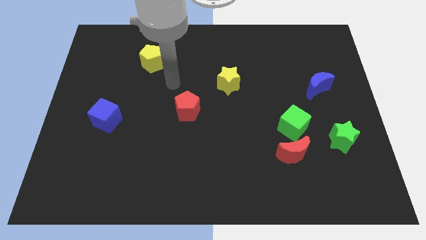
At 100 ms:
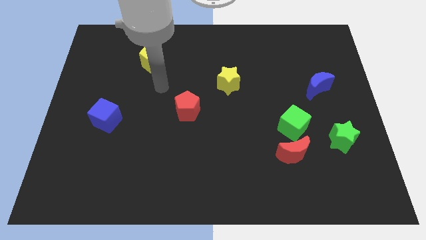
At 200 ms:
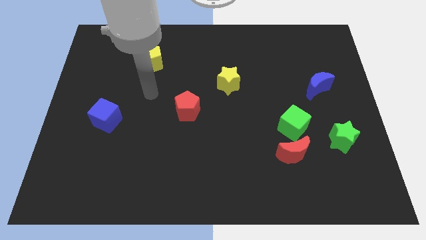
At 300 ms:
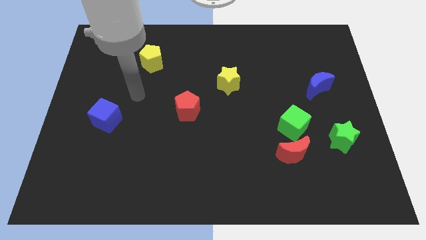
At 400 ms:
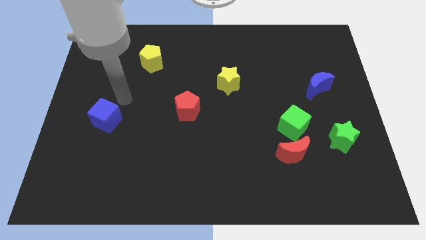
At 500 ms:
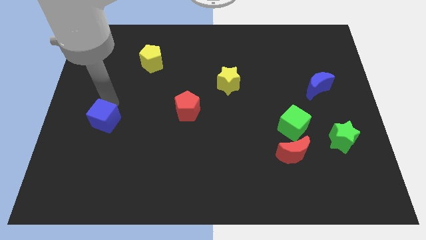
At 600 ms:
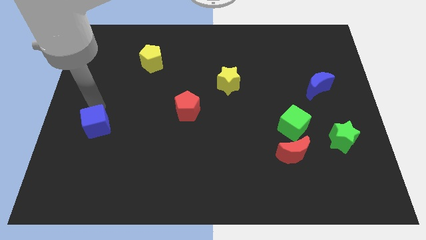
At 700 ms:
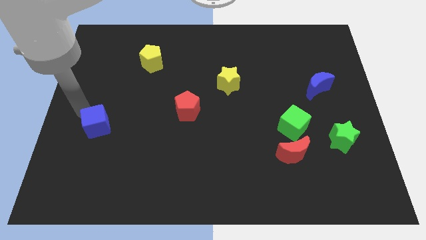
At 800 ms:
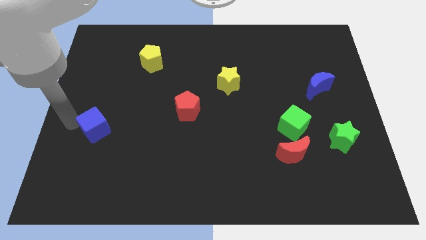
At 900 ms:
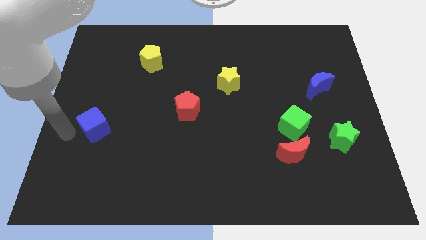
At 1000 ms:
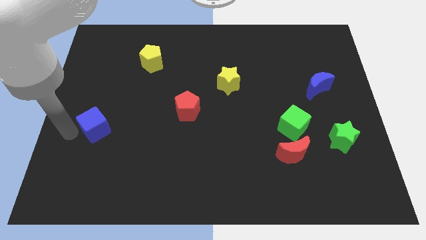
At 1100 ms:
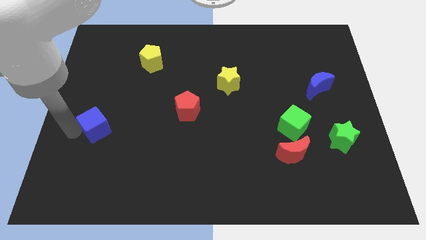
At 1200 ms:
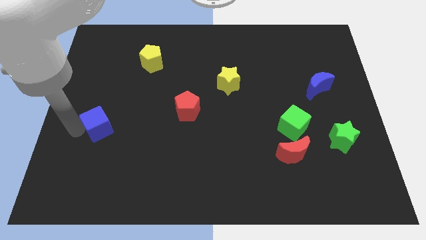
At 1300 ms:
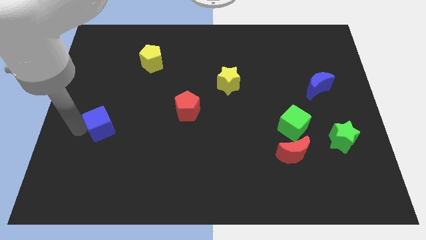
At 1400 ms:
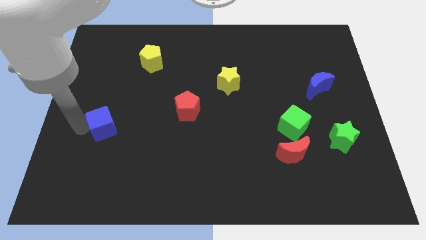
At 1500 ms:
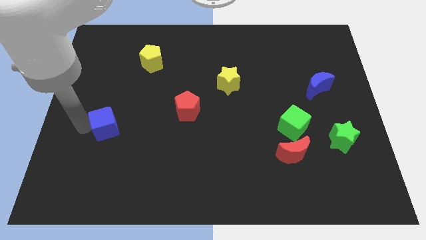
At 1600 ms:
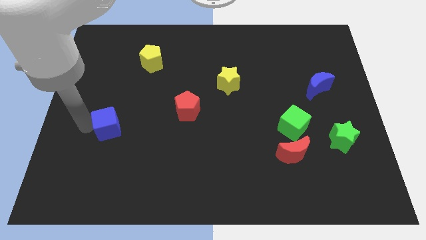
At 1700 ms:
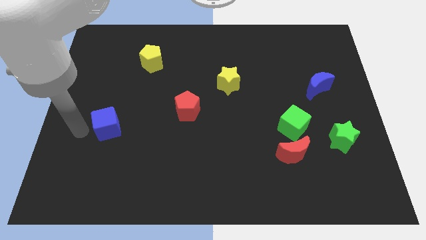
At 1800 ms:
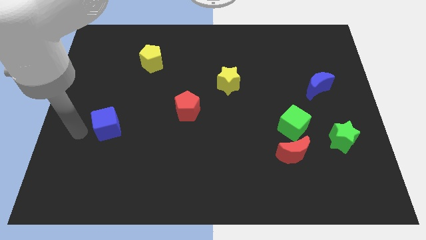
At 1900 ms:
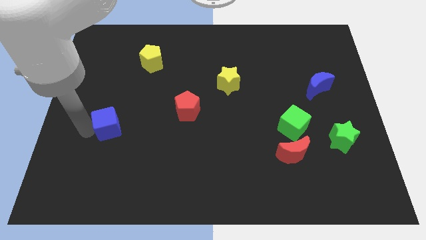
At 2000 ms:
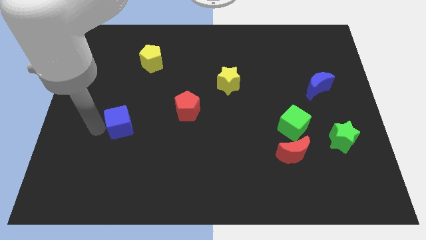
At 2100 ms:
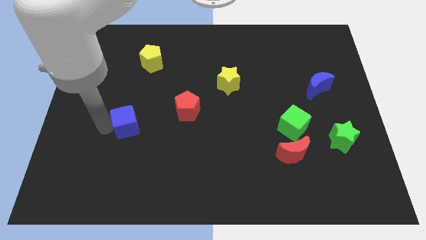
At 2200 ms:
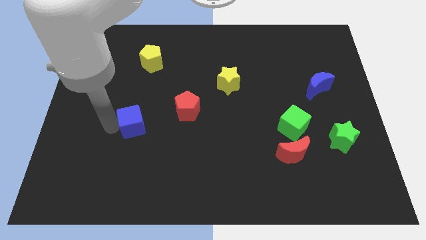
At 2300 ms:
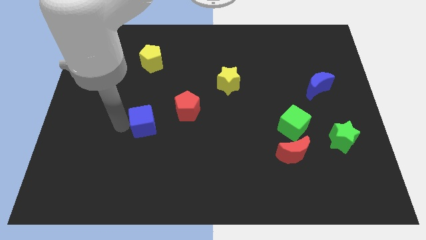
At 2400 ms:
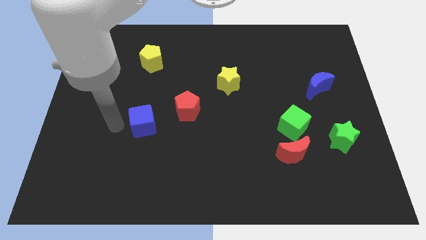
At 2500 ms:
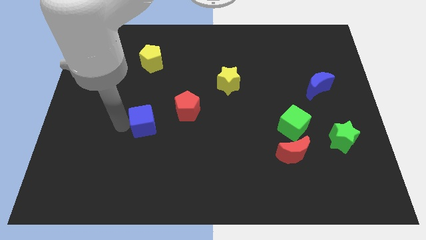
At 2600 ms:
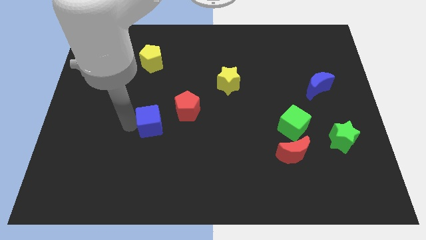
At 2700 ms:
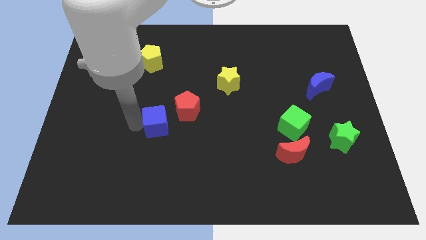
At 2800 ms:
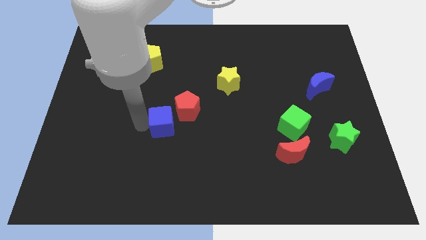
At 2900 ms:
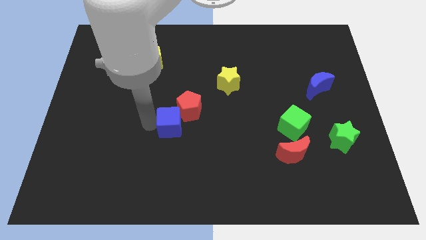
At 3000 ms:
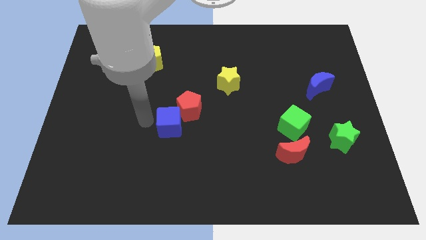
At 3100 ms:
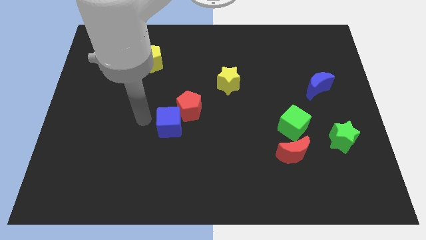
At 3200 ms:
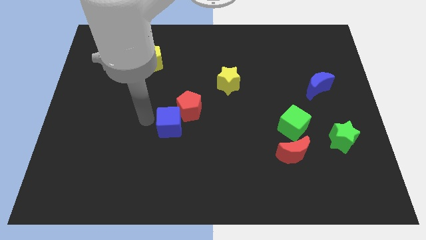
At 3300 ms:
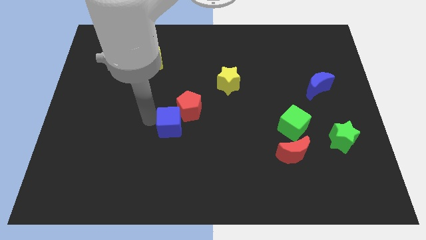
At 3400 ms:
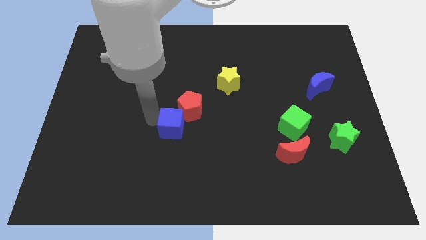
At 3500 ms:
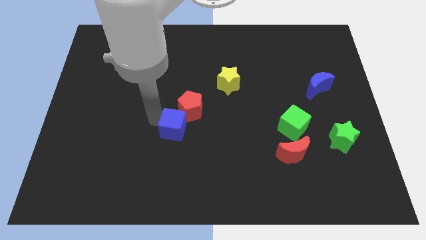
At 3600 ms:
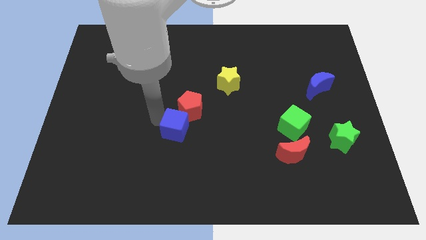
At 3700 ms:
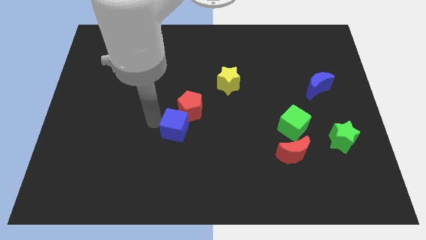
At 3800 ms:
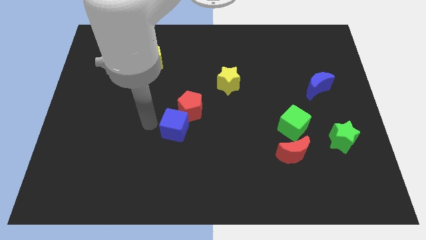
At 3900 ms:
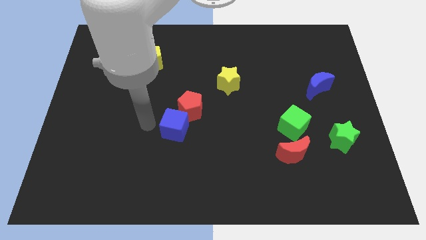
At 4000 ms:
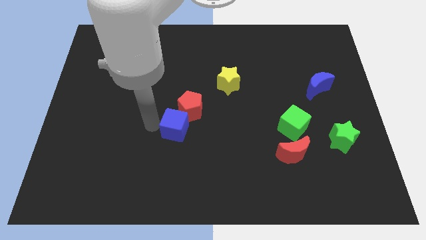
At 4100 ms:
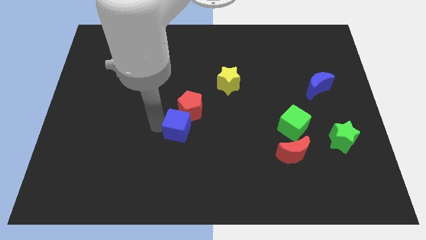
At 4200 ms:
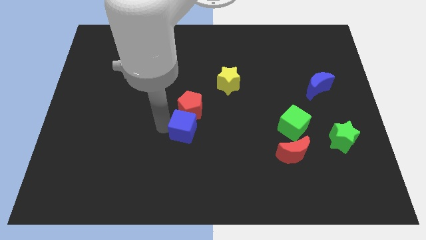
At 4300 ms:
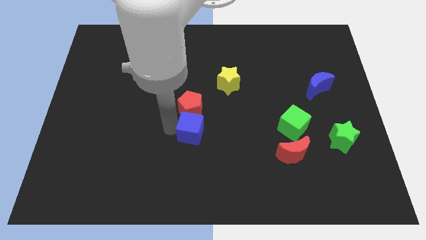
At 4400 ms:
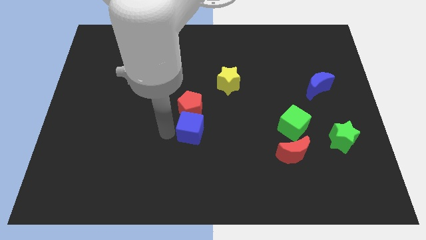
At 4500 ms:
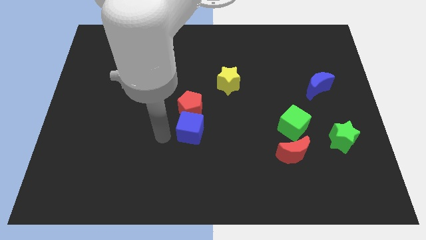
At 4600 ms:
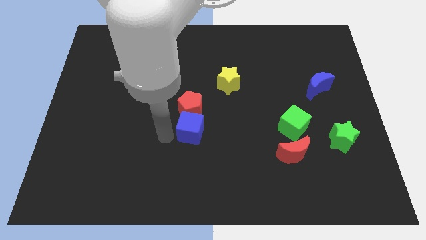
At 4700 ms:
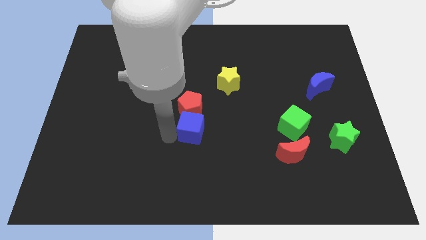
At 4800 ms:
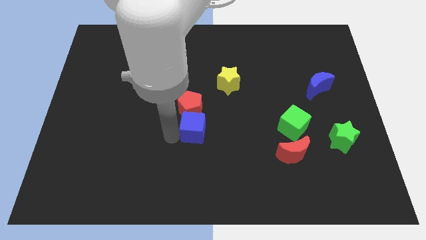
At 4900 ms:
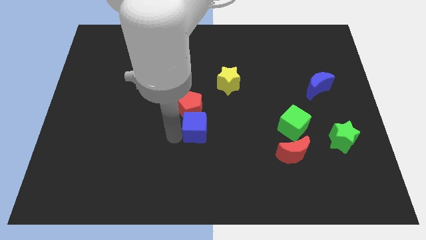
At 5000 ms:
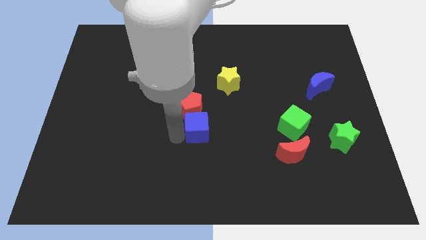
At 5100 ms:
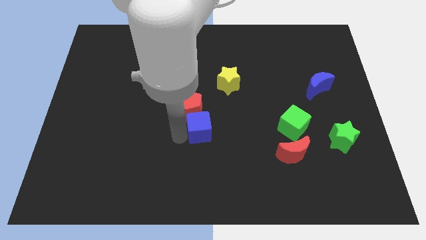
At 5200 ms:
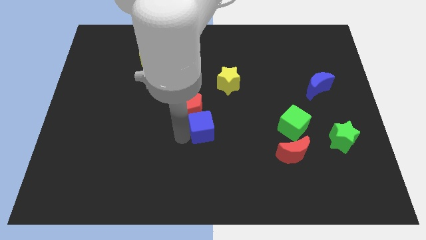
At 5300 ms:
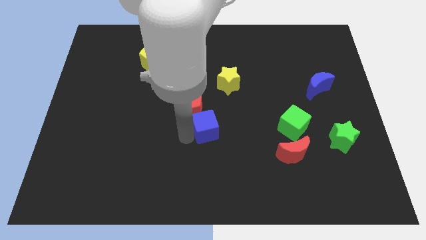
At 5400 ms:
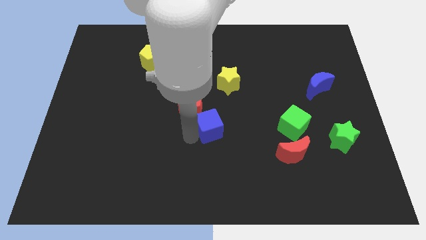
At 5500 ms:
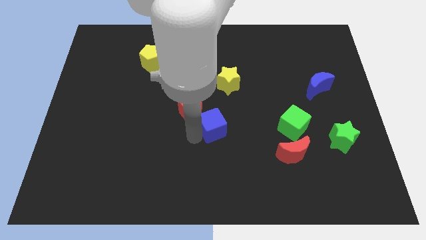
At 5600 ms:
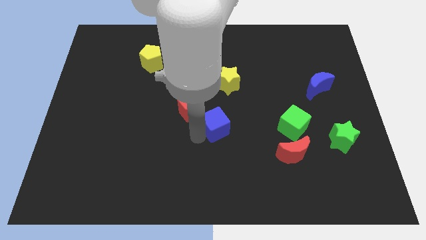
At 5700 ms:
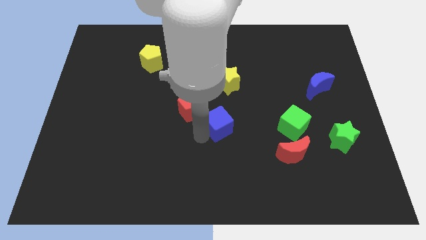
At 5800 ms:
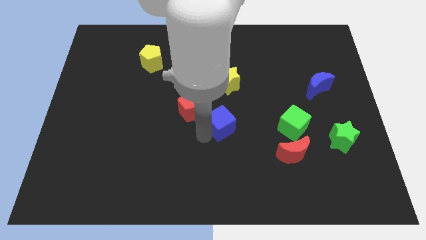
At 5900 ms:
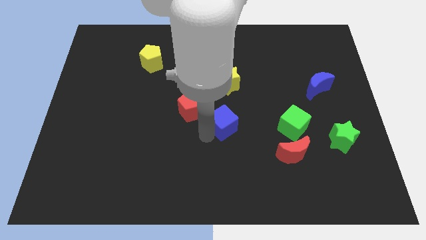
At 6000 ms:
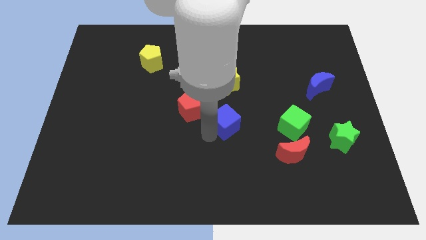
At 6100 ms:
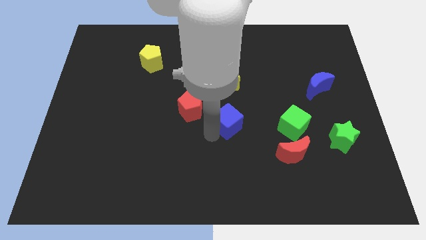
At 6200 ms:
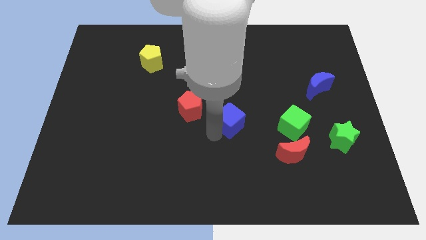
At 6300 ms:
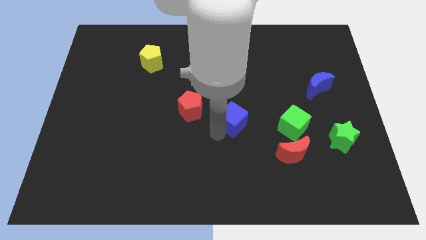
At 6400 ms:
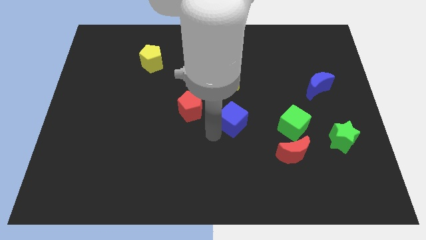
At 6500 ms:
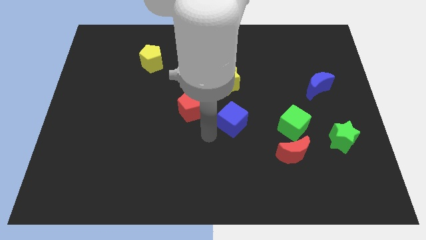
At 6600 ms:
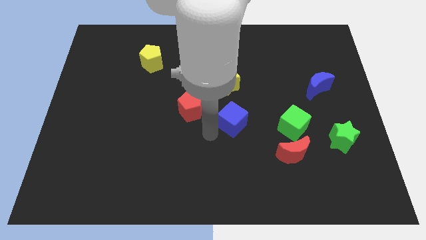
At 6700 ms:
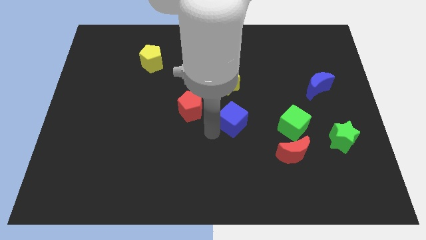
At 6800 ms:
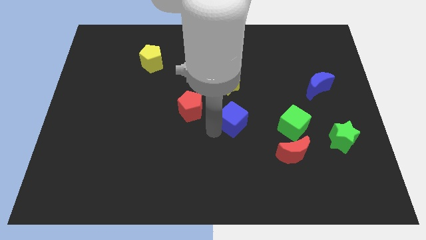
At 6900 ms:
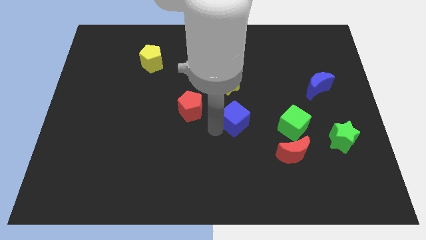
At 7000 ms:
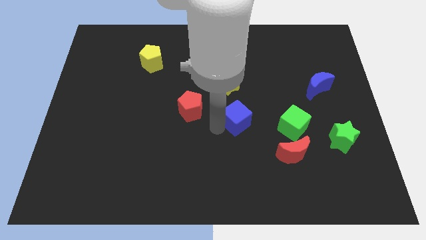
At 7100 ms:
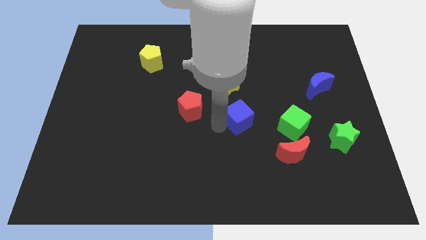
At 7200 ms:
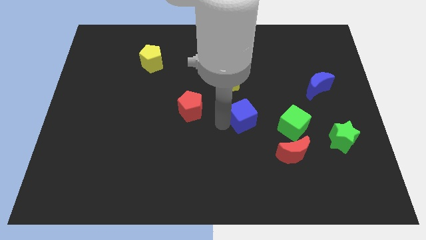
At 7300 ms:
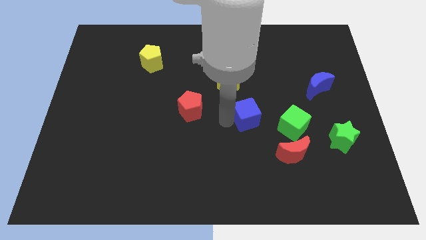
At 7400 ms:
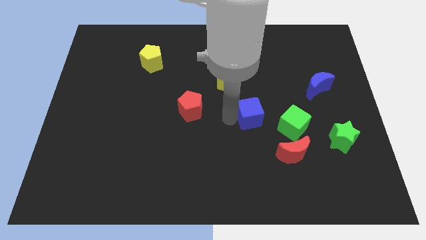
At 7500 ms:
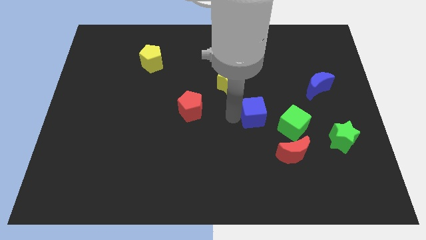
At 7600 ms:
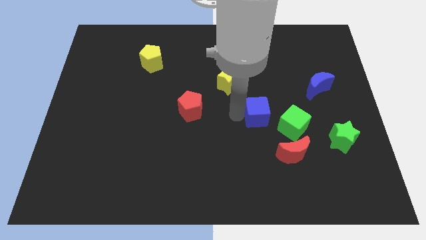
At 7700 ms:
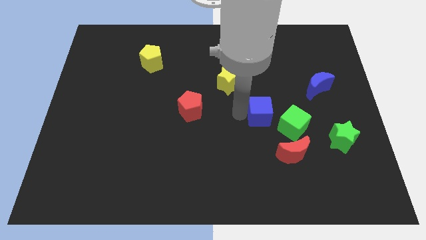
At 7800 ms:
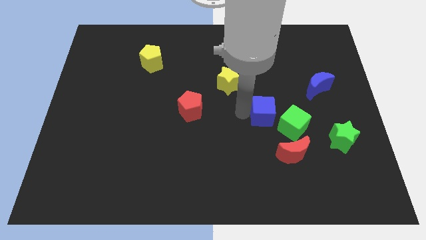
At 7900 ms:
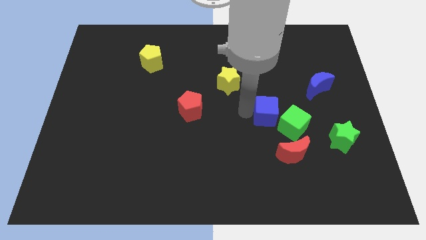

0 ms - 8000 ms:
slide the blue cube to the top of the red moon
